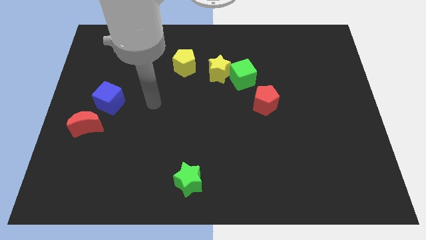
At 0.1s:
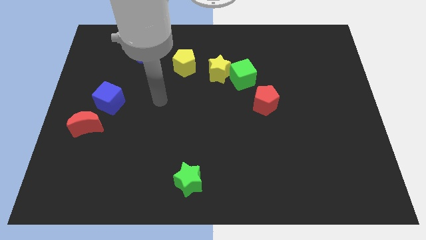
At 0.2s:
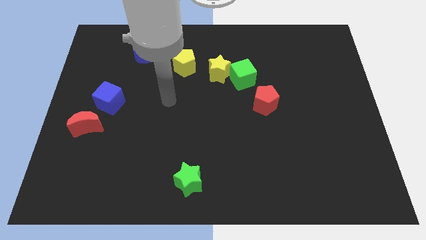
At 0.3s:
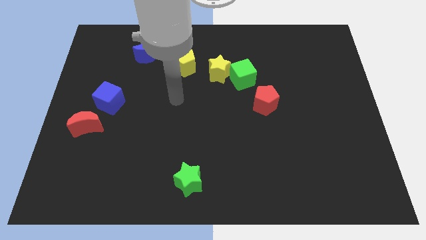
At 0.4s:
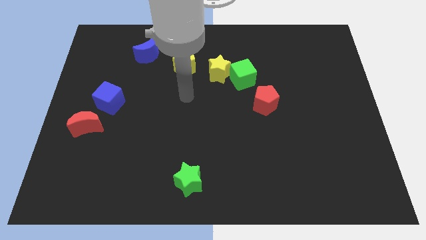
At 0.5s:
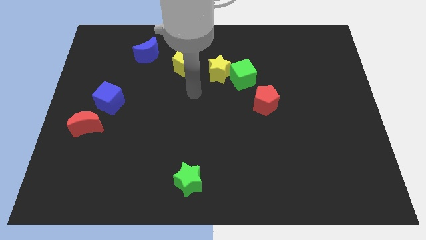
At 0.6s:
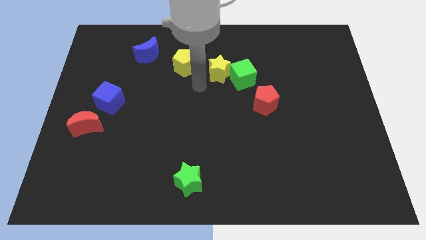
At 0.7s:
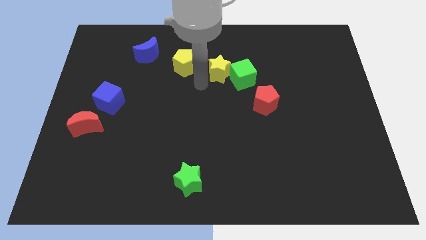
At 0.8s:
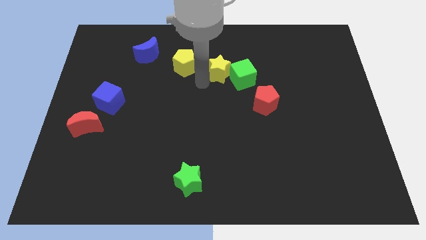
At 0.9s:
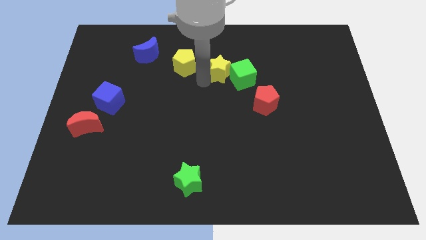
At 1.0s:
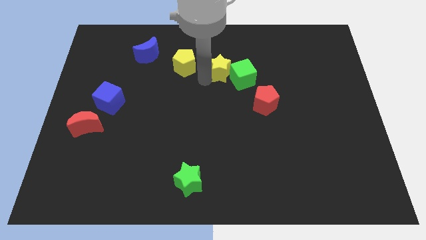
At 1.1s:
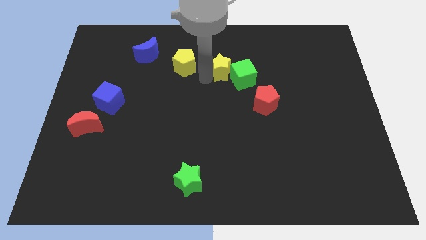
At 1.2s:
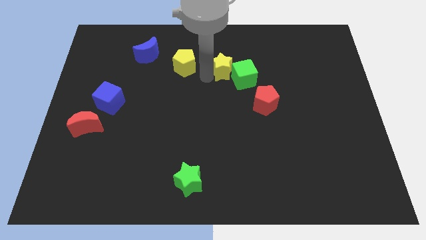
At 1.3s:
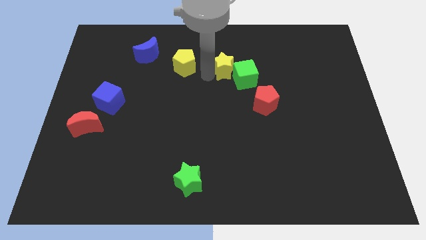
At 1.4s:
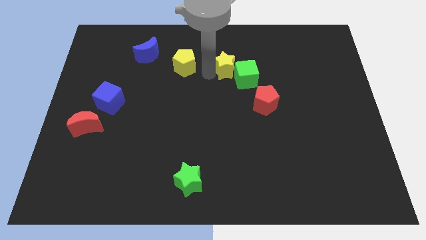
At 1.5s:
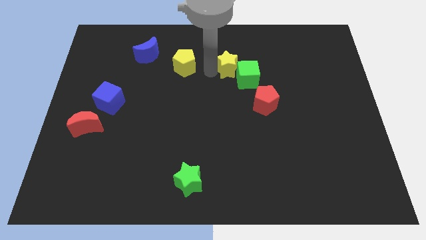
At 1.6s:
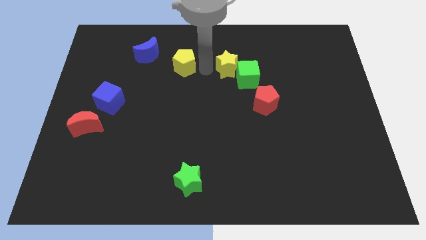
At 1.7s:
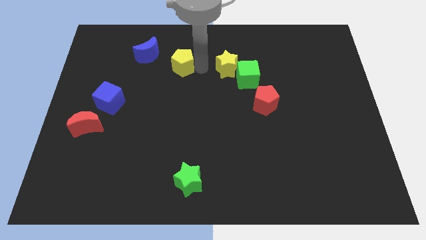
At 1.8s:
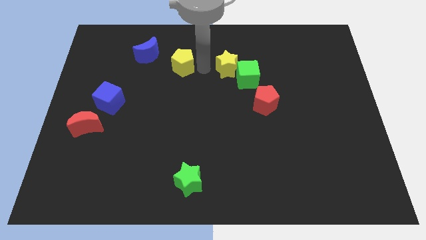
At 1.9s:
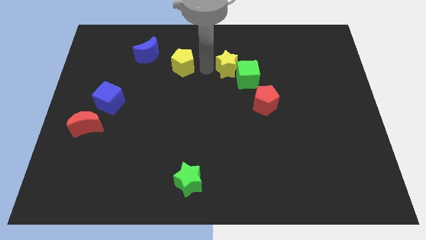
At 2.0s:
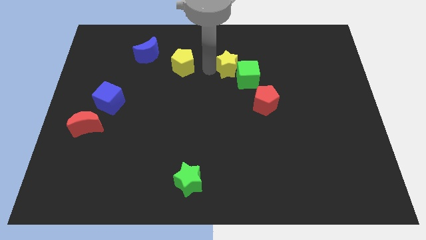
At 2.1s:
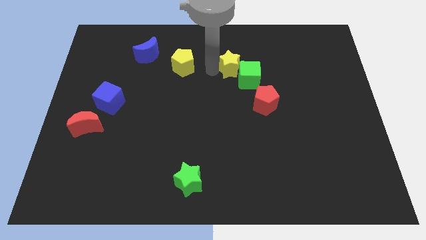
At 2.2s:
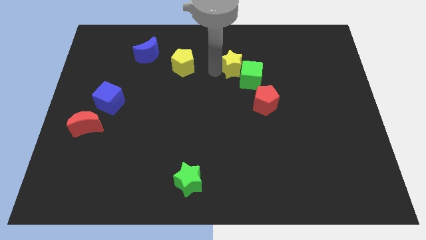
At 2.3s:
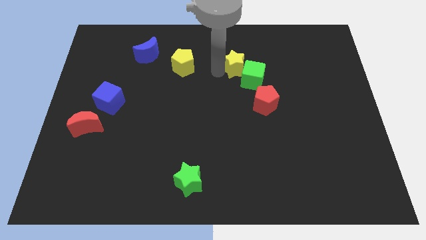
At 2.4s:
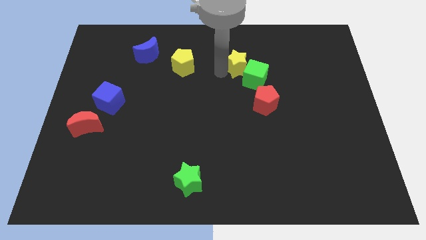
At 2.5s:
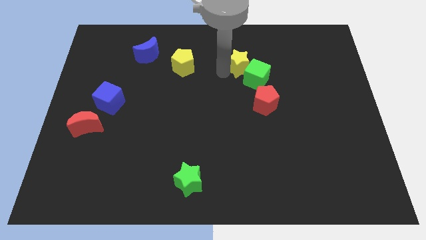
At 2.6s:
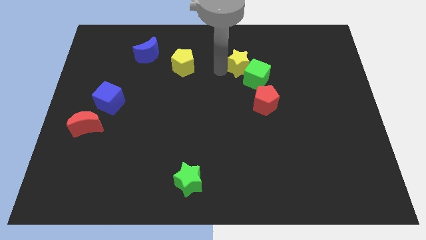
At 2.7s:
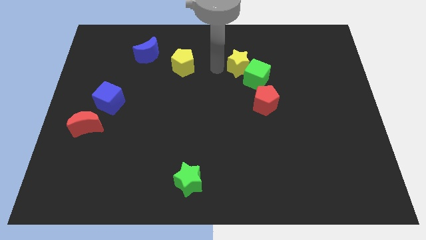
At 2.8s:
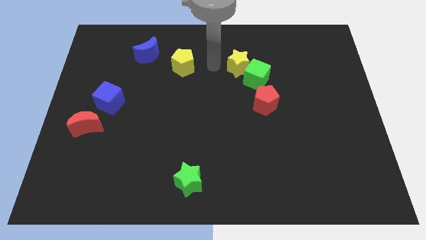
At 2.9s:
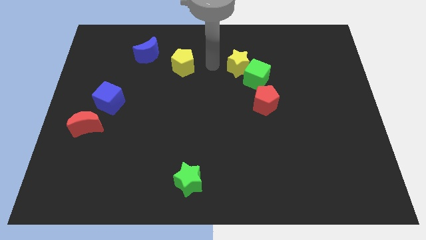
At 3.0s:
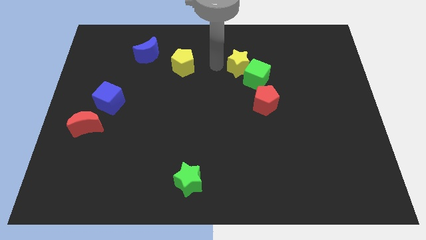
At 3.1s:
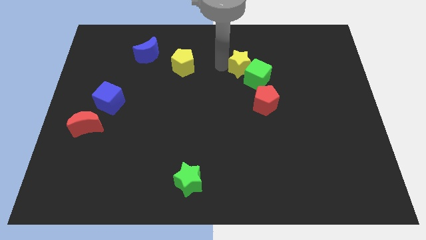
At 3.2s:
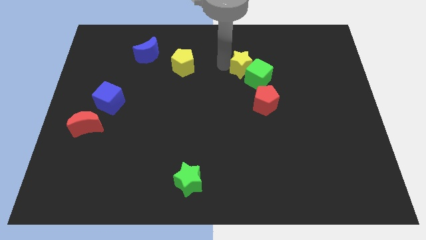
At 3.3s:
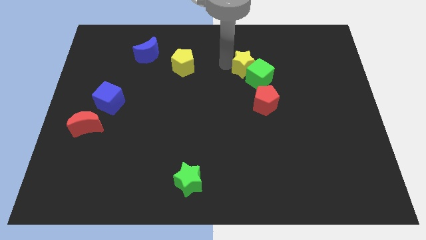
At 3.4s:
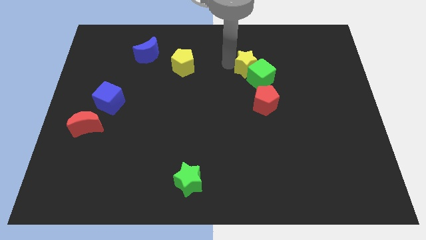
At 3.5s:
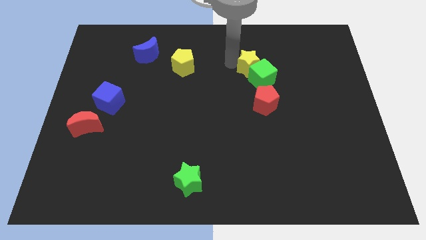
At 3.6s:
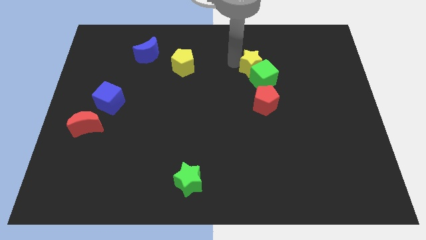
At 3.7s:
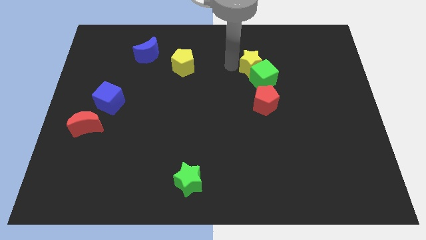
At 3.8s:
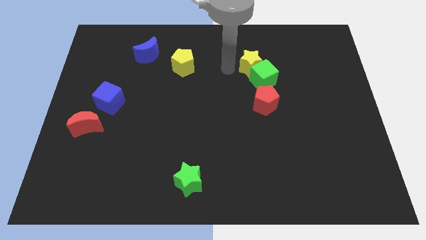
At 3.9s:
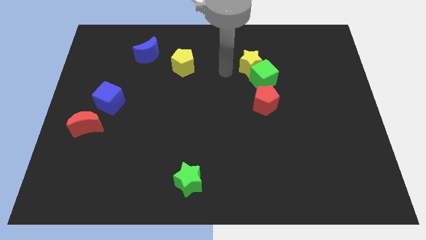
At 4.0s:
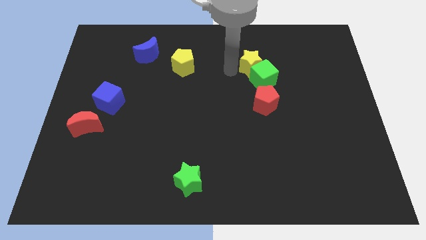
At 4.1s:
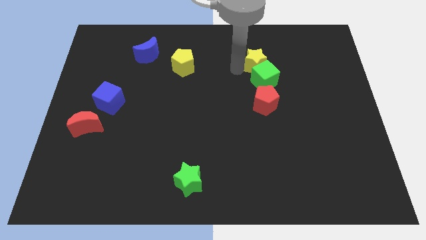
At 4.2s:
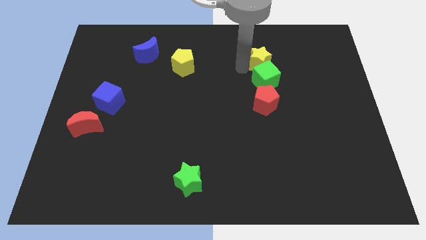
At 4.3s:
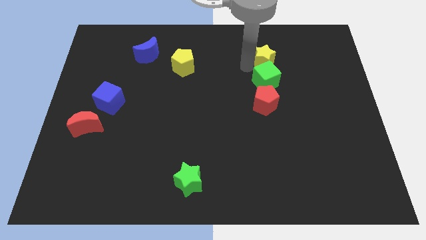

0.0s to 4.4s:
move the yellow star away from the green cube and yellow pentagon

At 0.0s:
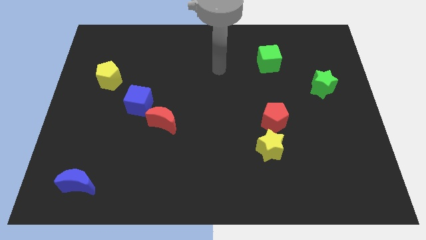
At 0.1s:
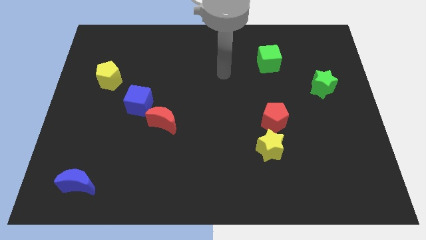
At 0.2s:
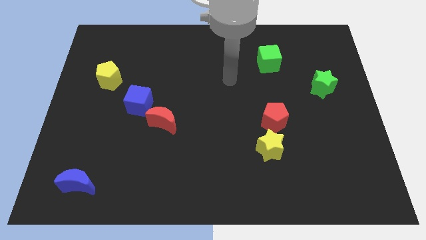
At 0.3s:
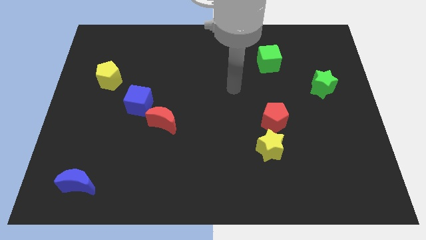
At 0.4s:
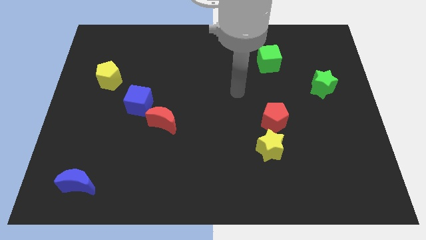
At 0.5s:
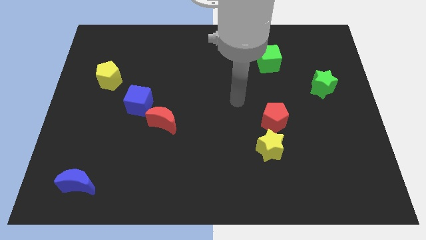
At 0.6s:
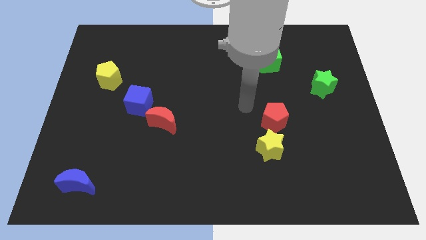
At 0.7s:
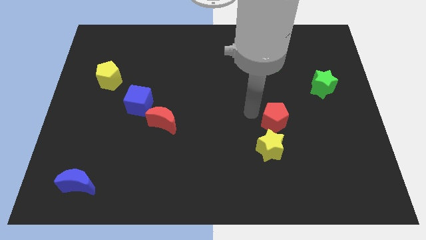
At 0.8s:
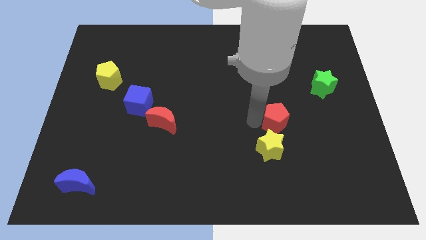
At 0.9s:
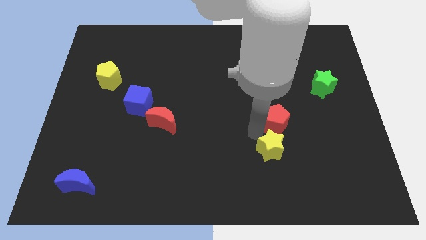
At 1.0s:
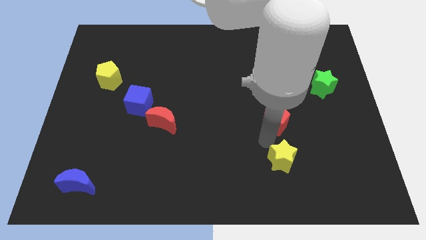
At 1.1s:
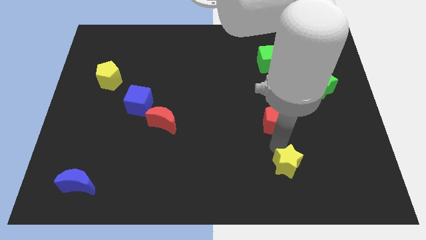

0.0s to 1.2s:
pull the red pentagon apart from the yellow star

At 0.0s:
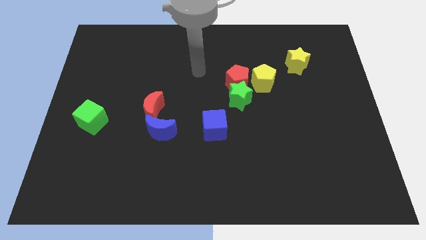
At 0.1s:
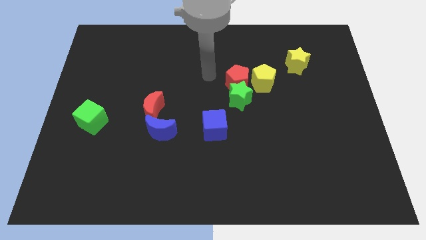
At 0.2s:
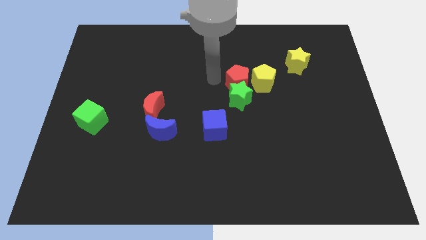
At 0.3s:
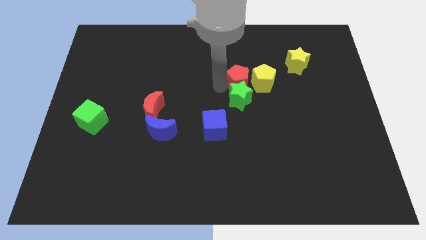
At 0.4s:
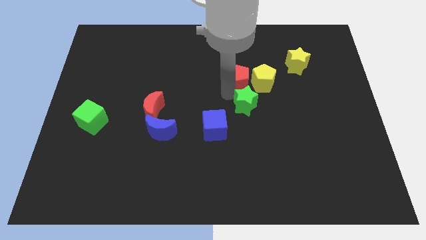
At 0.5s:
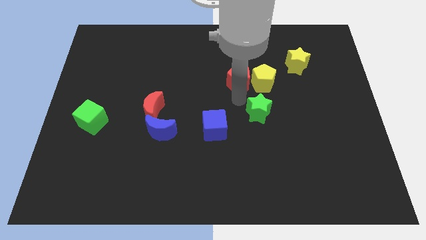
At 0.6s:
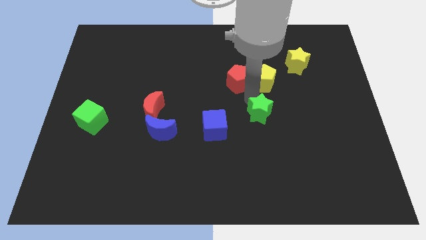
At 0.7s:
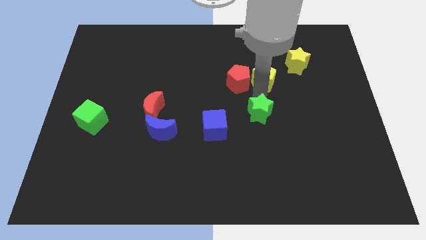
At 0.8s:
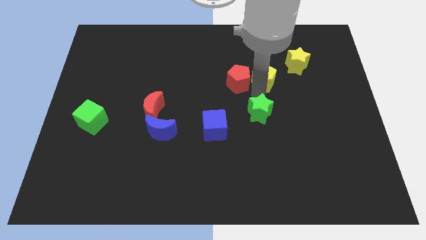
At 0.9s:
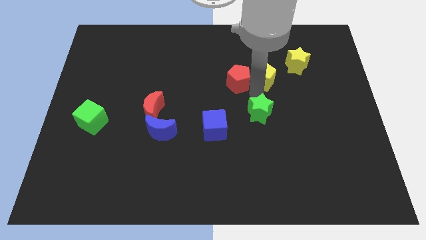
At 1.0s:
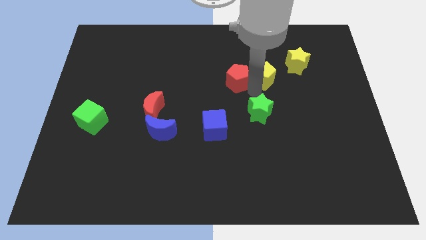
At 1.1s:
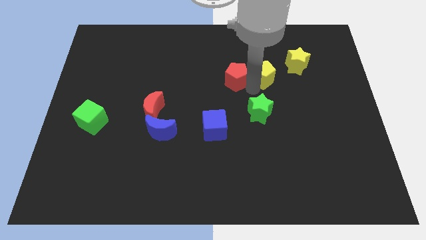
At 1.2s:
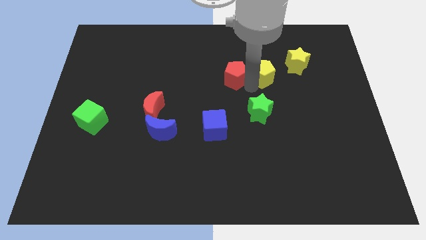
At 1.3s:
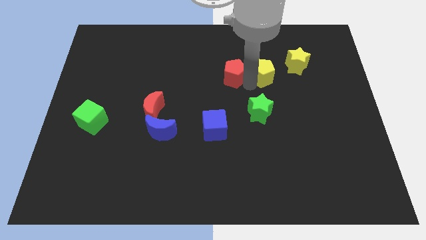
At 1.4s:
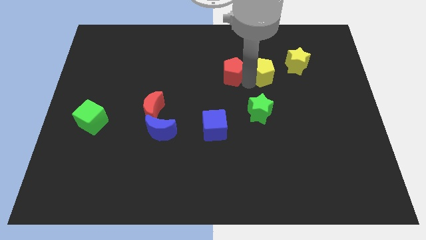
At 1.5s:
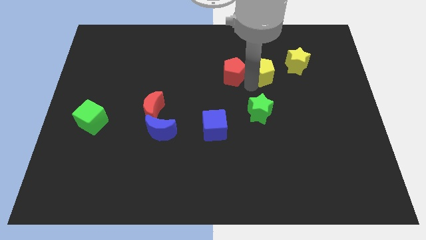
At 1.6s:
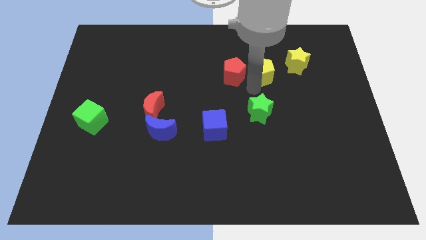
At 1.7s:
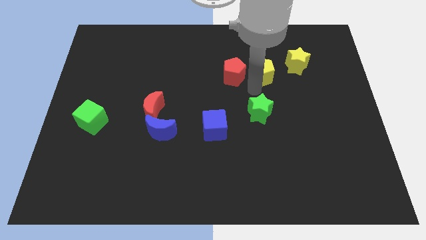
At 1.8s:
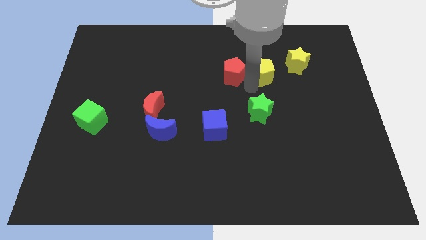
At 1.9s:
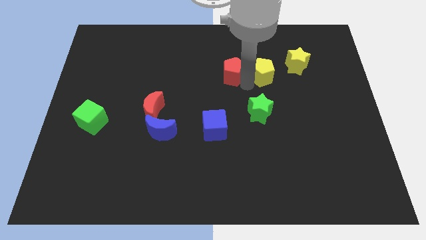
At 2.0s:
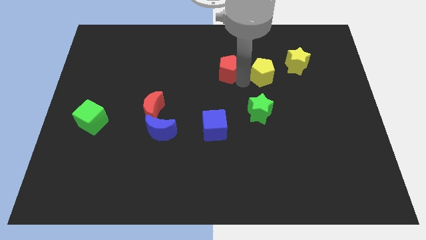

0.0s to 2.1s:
separate the red pentagon from the green star and yellow pentagon

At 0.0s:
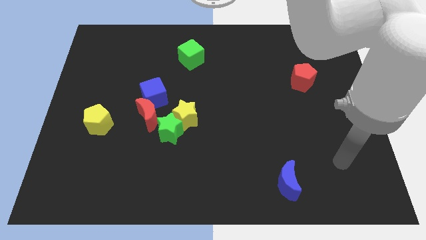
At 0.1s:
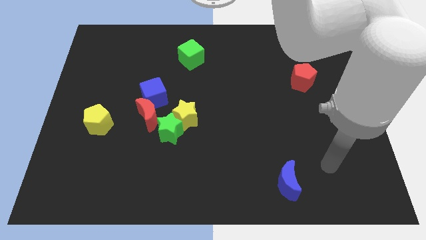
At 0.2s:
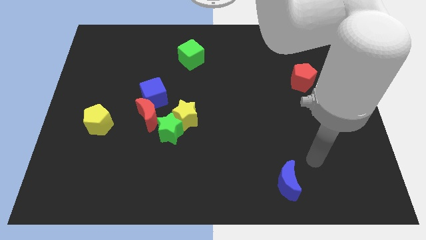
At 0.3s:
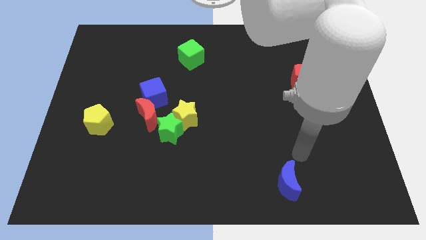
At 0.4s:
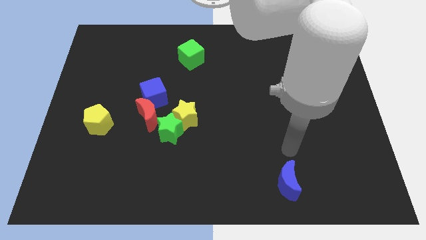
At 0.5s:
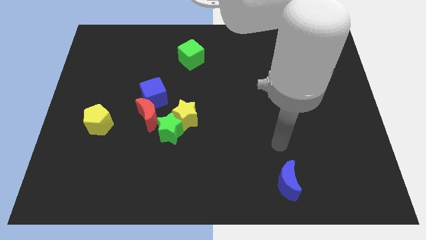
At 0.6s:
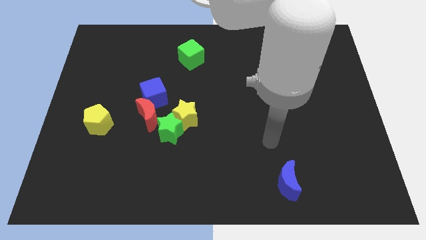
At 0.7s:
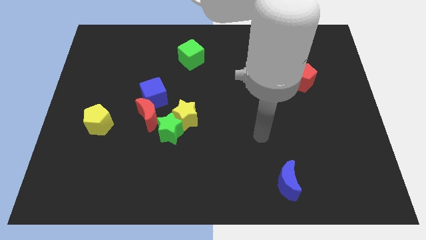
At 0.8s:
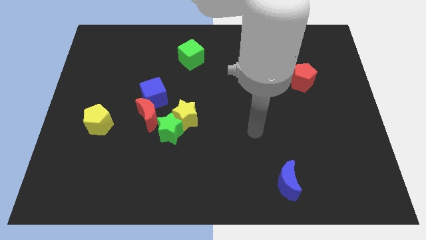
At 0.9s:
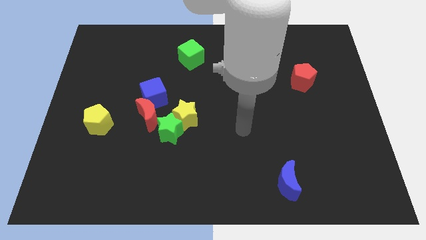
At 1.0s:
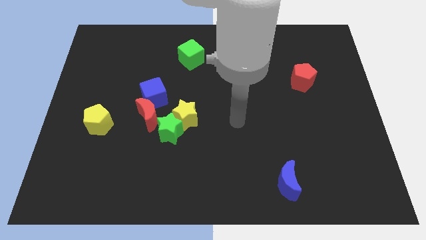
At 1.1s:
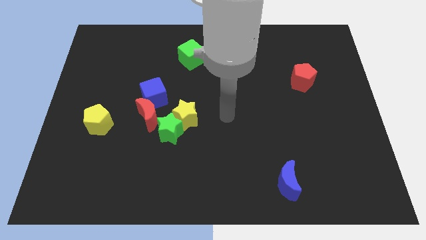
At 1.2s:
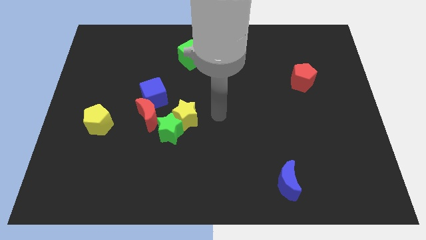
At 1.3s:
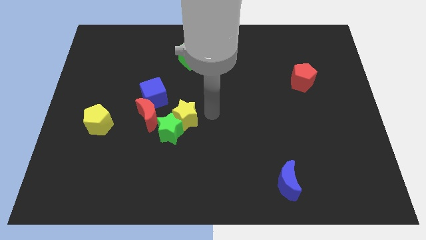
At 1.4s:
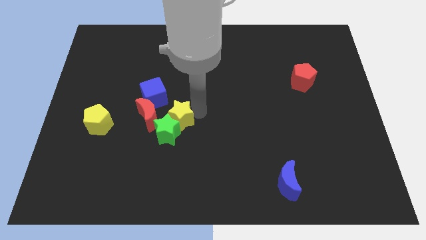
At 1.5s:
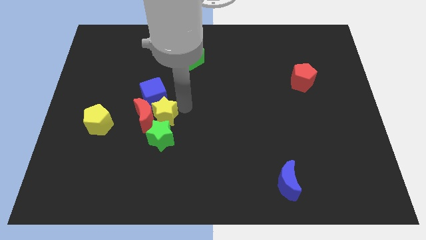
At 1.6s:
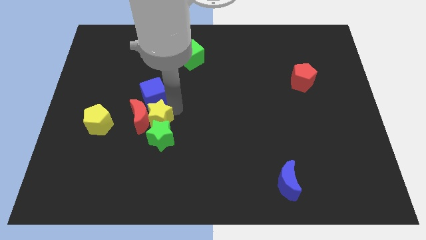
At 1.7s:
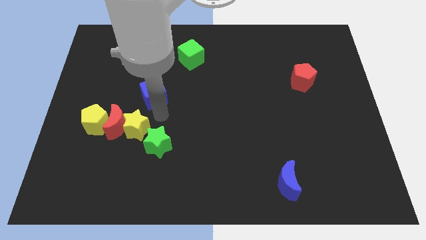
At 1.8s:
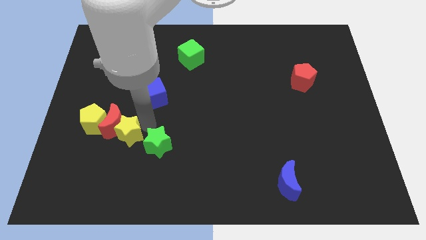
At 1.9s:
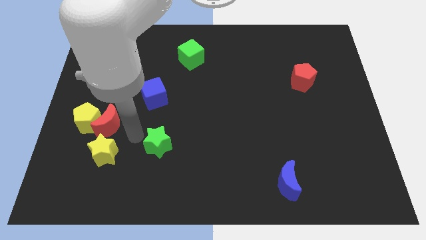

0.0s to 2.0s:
move the green star away from the yellow star and red moon
